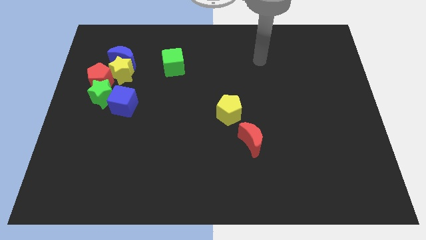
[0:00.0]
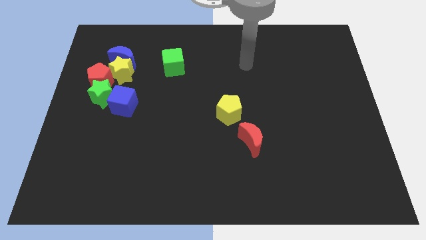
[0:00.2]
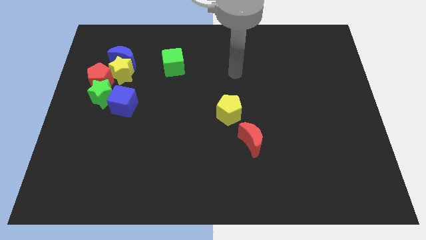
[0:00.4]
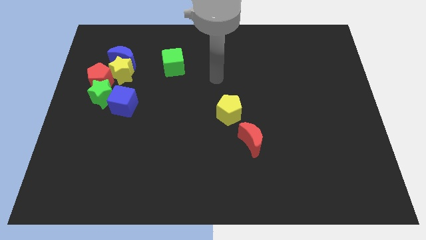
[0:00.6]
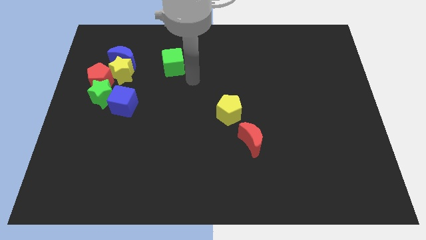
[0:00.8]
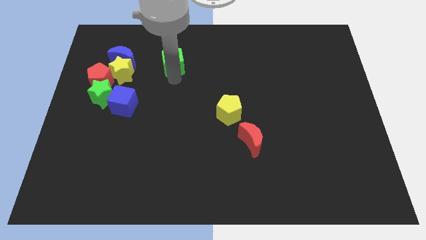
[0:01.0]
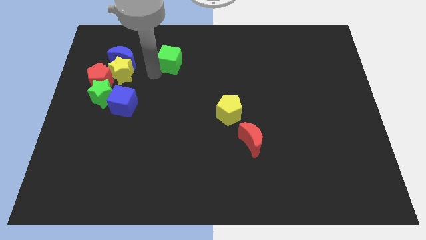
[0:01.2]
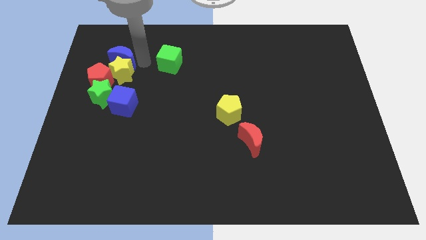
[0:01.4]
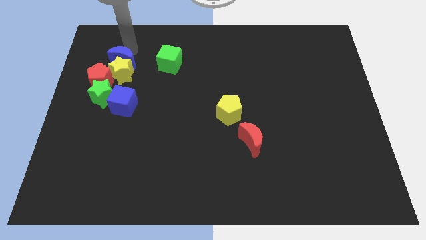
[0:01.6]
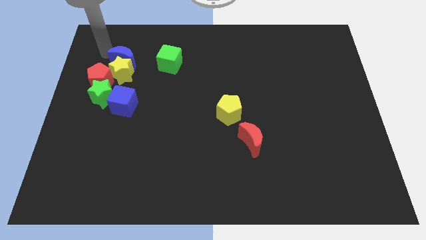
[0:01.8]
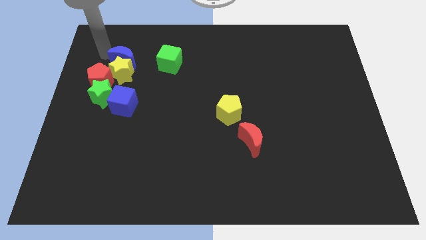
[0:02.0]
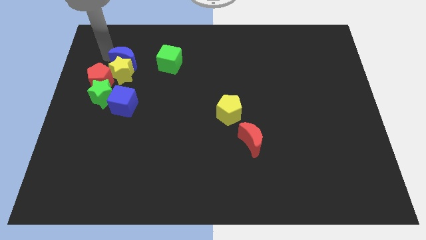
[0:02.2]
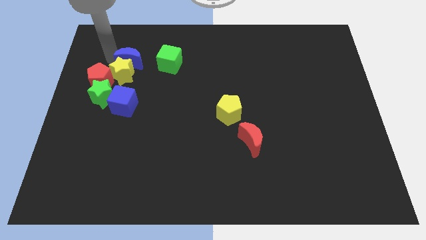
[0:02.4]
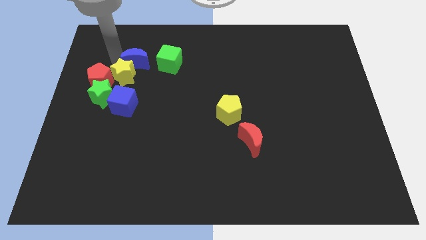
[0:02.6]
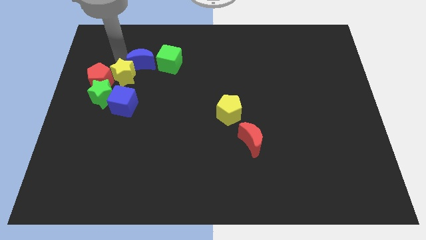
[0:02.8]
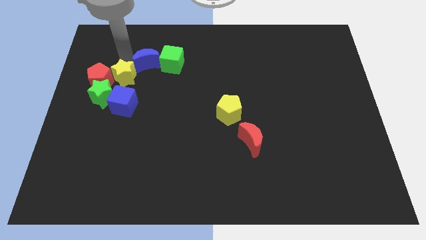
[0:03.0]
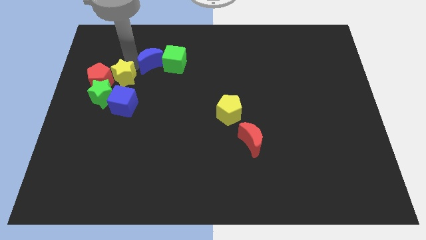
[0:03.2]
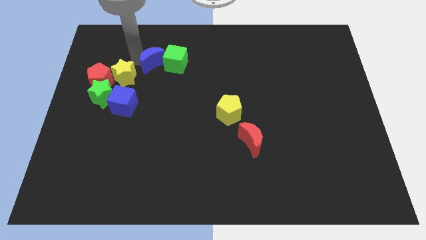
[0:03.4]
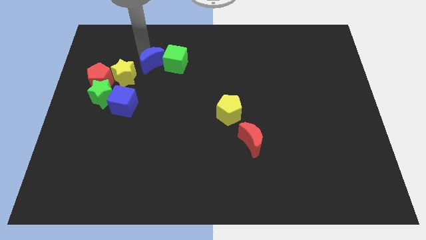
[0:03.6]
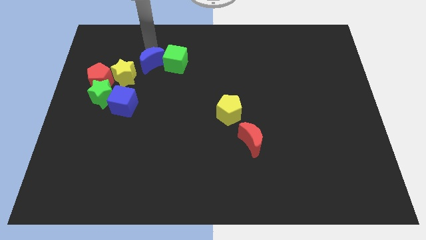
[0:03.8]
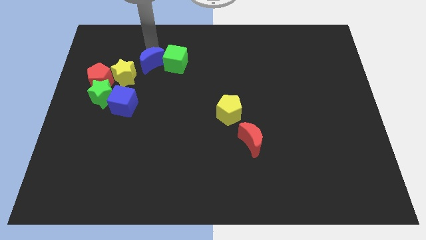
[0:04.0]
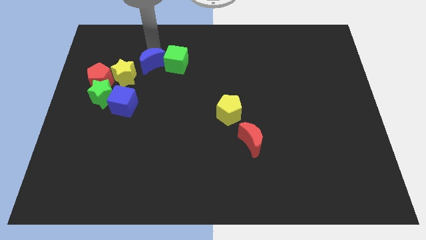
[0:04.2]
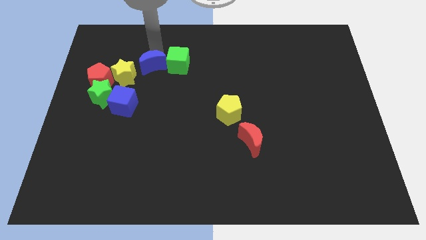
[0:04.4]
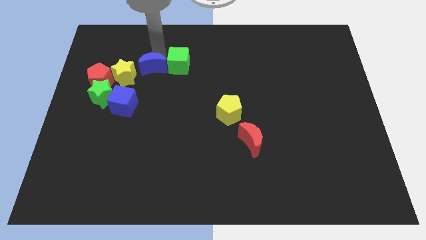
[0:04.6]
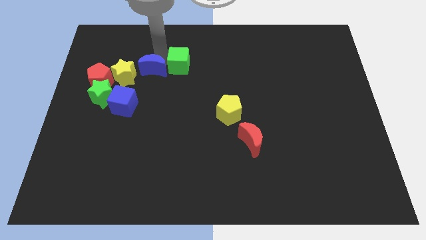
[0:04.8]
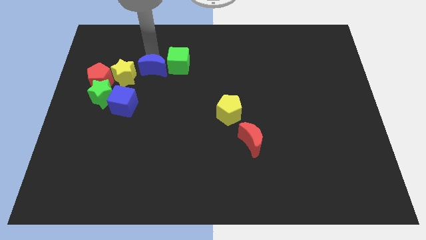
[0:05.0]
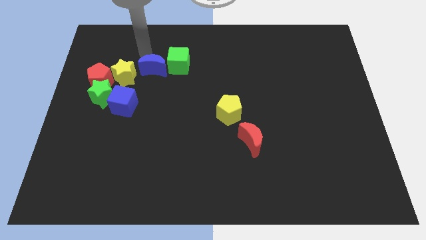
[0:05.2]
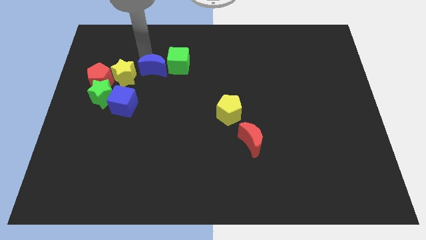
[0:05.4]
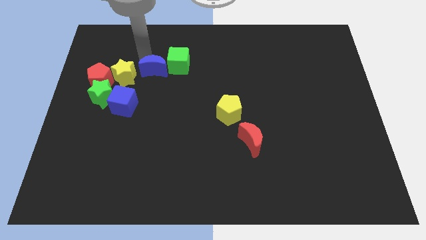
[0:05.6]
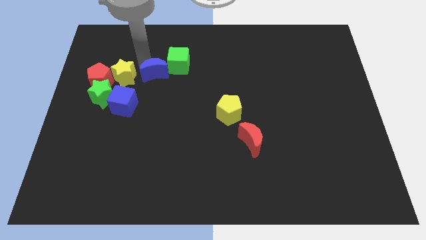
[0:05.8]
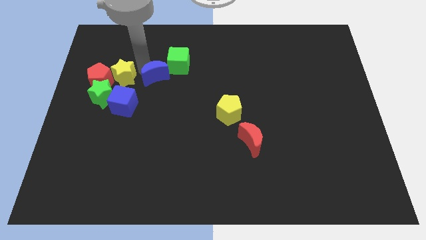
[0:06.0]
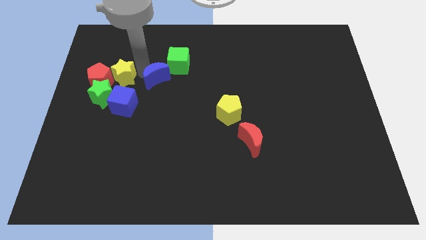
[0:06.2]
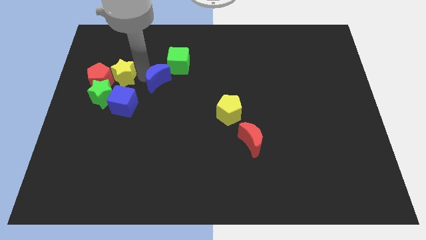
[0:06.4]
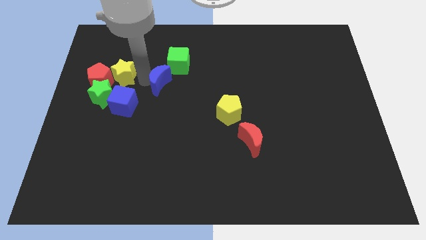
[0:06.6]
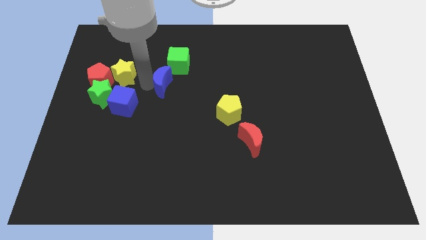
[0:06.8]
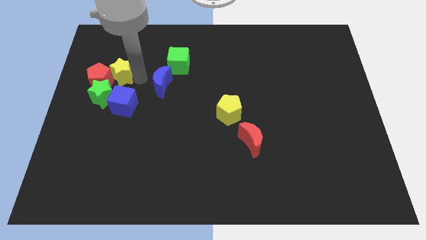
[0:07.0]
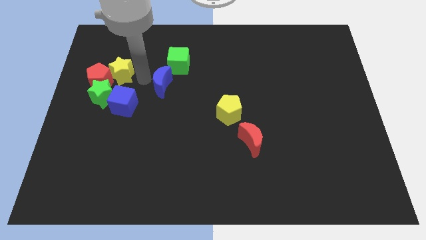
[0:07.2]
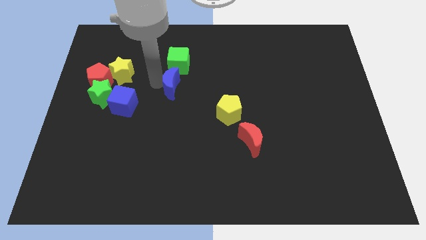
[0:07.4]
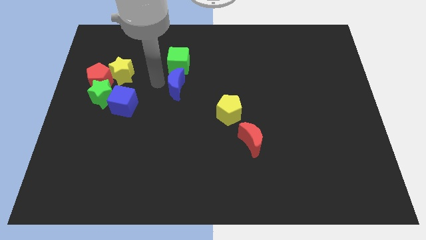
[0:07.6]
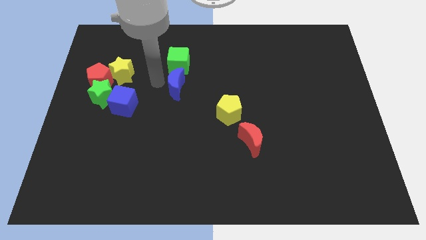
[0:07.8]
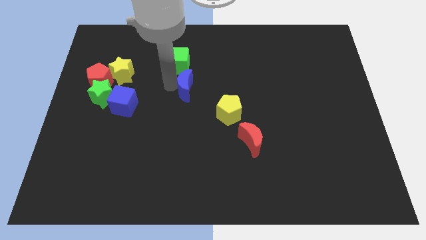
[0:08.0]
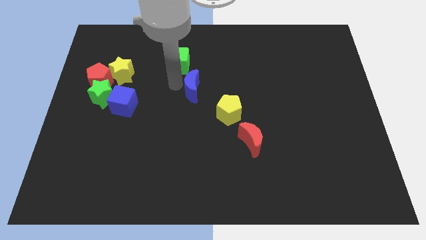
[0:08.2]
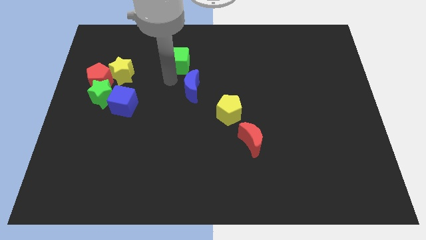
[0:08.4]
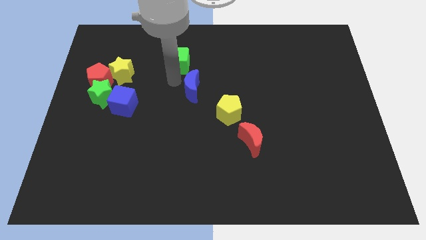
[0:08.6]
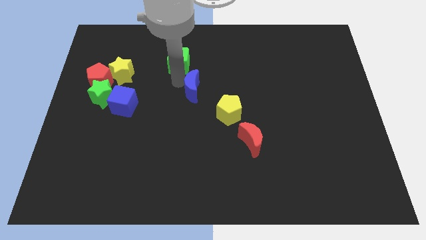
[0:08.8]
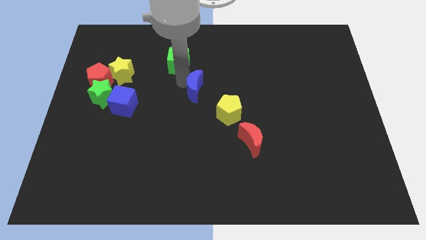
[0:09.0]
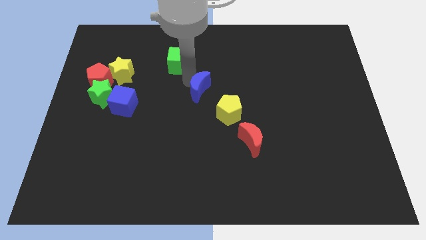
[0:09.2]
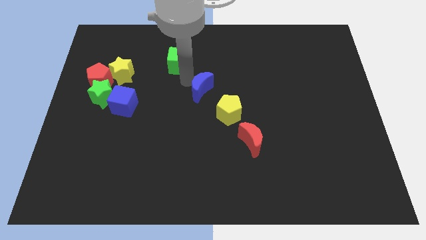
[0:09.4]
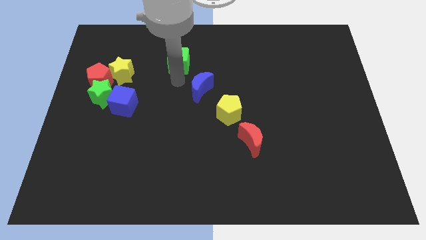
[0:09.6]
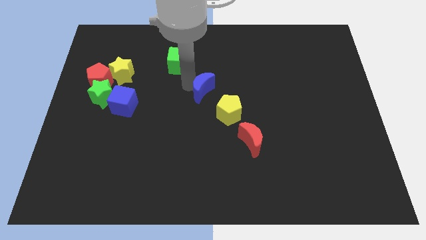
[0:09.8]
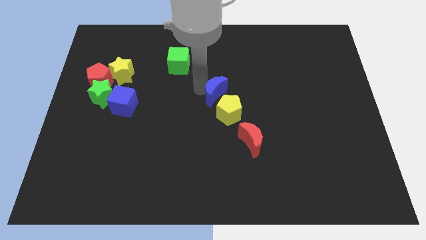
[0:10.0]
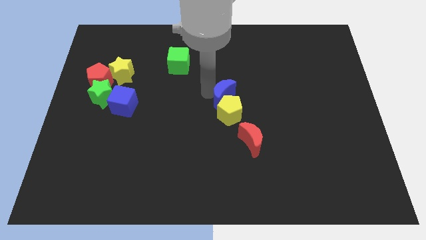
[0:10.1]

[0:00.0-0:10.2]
push the blue moon to the top right side of the yellow pentagon

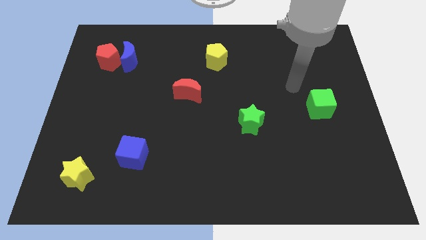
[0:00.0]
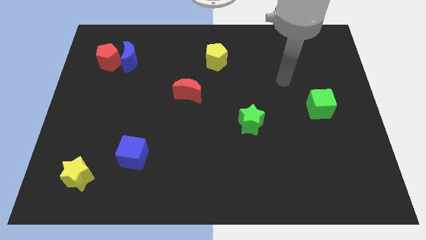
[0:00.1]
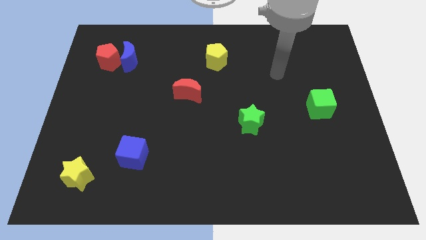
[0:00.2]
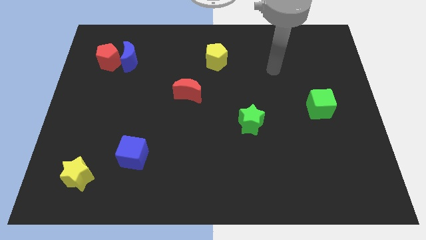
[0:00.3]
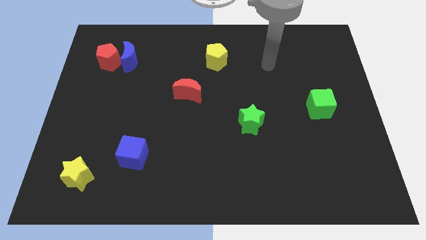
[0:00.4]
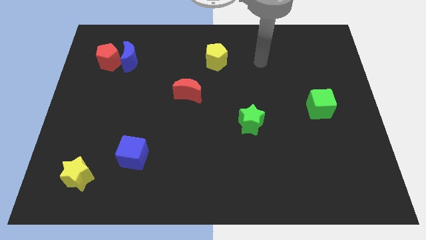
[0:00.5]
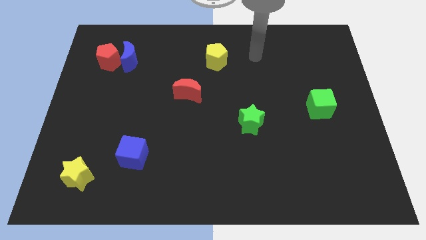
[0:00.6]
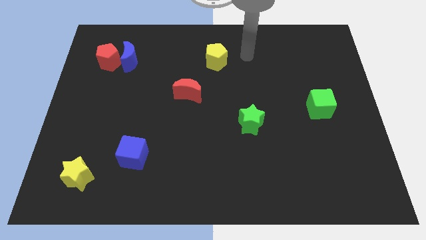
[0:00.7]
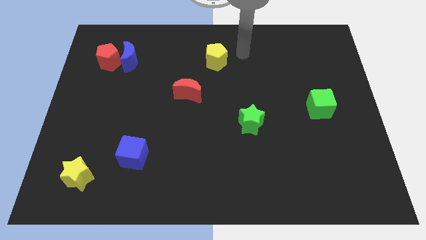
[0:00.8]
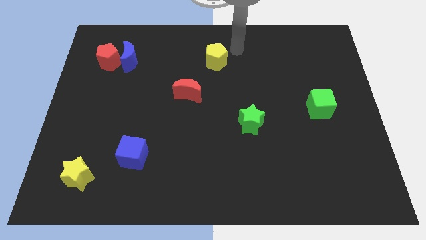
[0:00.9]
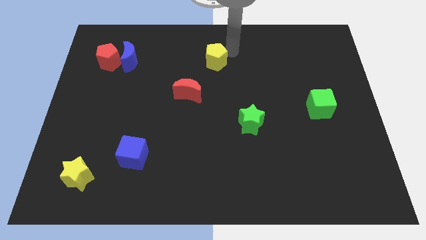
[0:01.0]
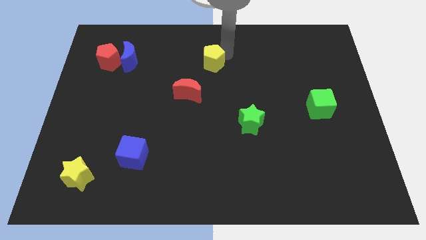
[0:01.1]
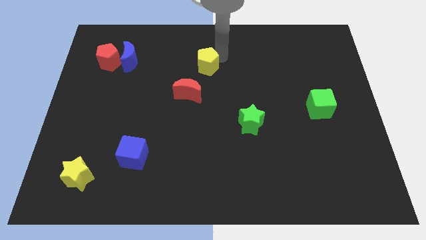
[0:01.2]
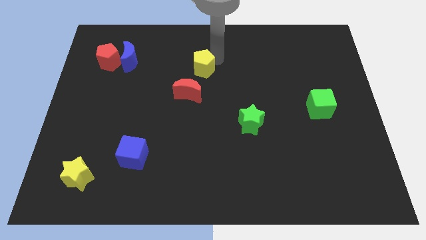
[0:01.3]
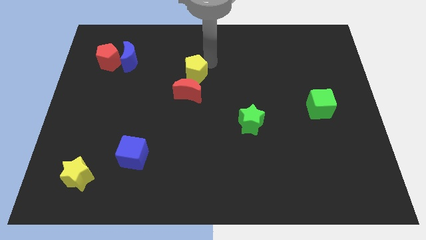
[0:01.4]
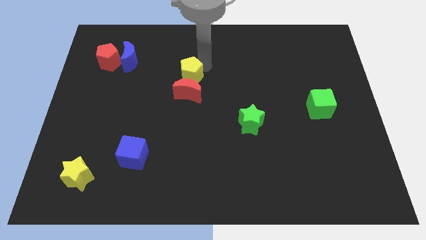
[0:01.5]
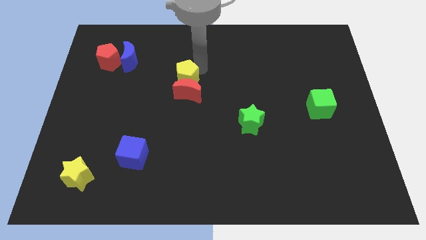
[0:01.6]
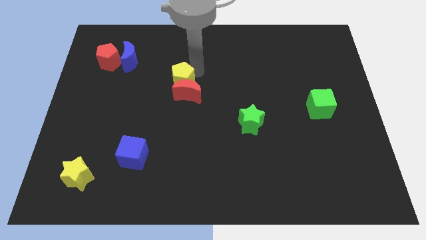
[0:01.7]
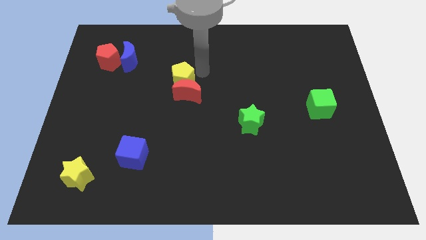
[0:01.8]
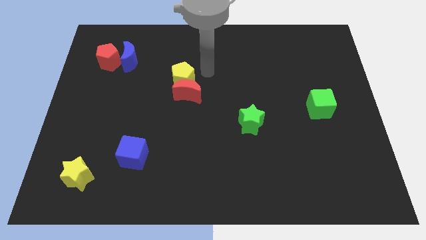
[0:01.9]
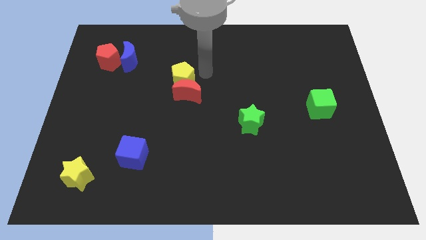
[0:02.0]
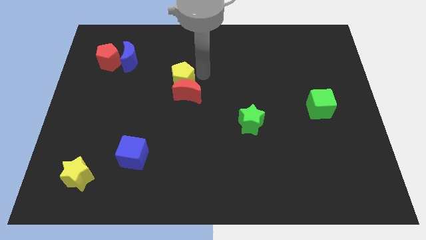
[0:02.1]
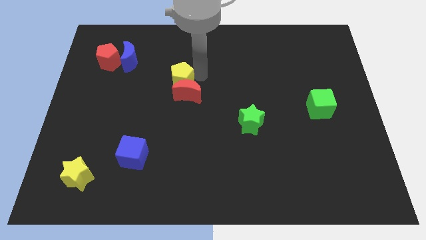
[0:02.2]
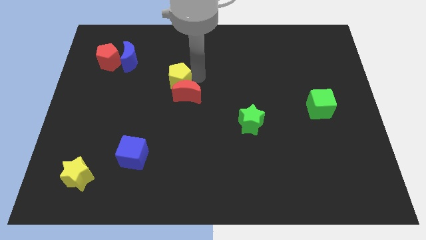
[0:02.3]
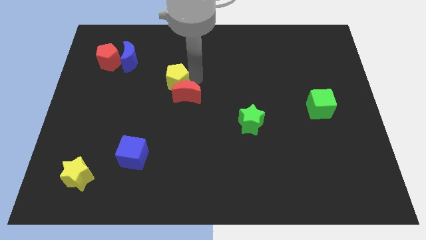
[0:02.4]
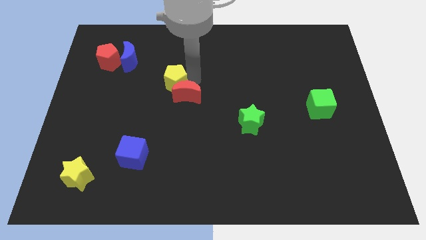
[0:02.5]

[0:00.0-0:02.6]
slide the yellow pentagon to the left side of the red moon
